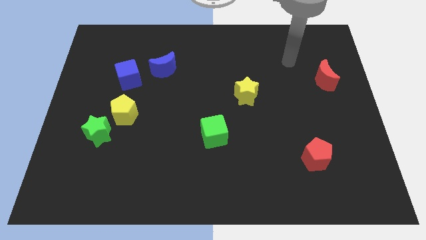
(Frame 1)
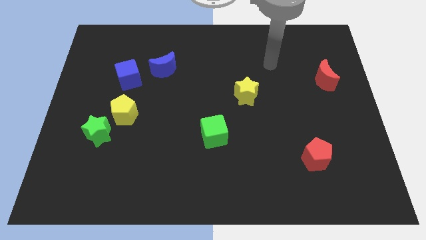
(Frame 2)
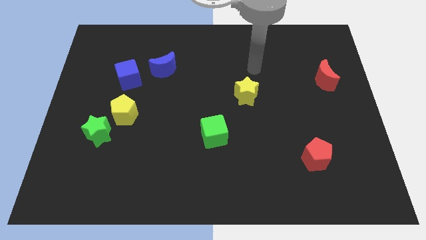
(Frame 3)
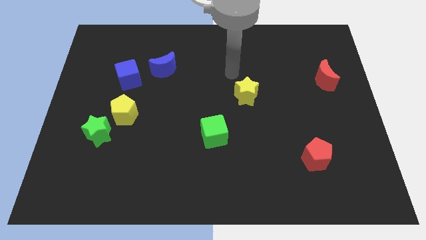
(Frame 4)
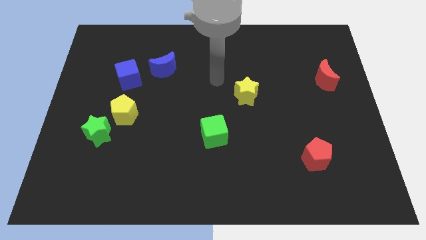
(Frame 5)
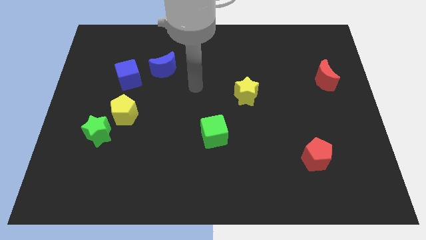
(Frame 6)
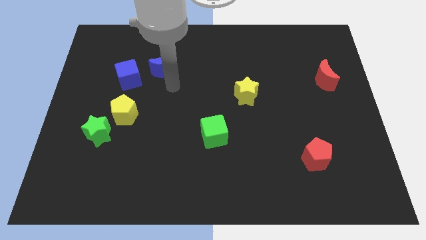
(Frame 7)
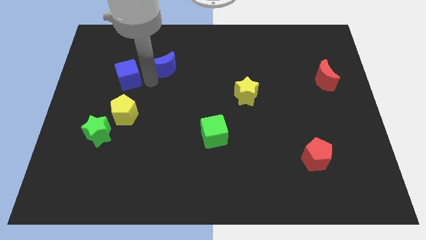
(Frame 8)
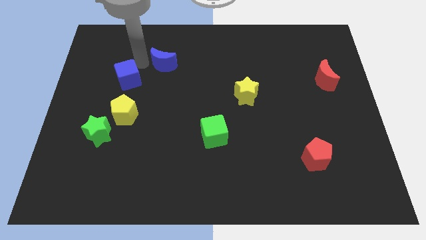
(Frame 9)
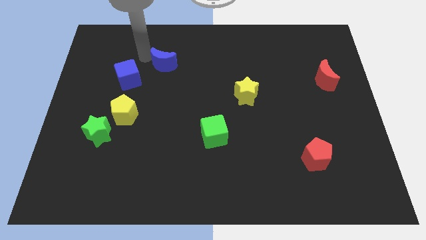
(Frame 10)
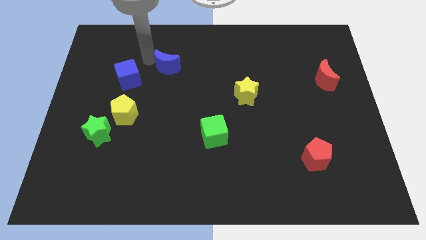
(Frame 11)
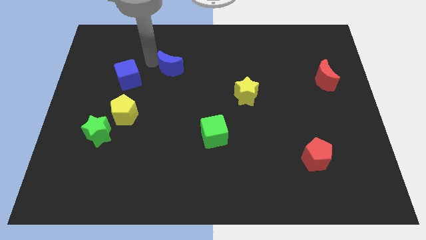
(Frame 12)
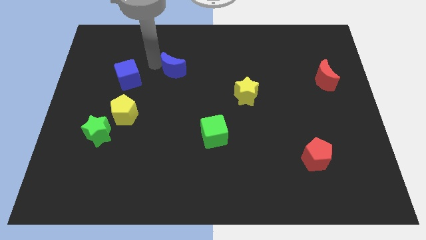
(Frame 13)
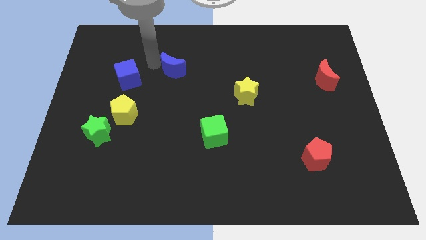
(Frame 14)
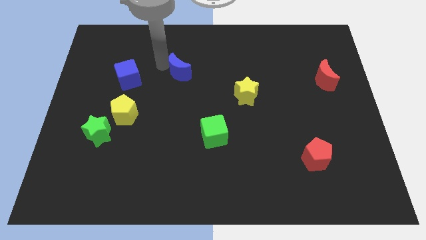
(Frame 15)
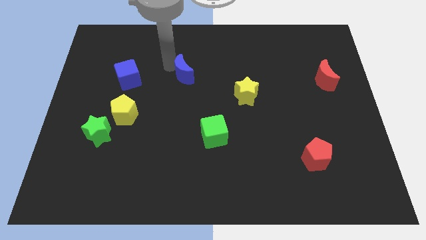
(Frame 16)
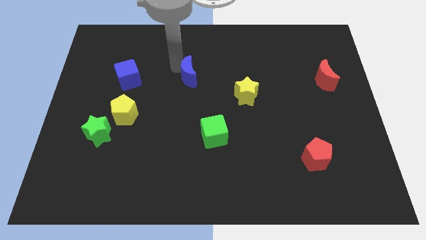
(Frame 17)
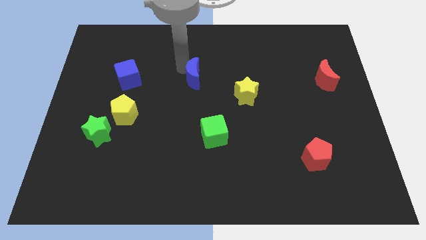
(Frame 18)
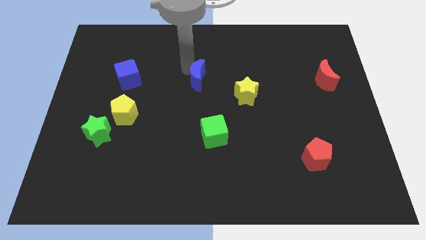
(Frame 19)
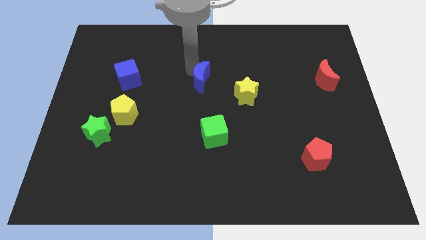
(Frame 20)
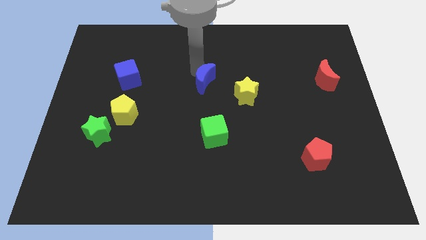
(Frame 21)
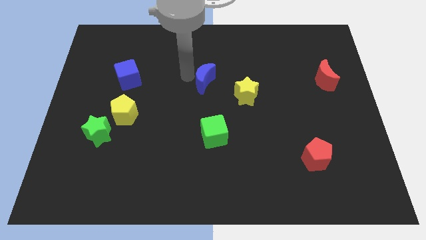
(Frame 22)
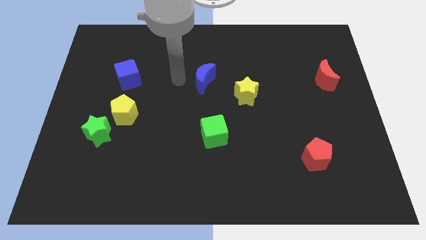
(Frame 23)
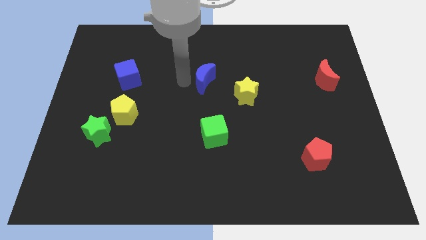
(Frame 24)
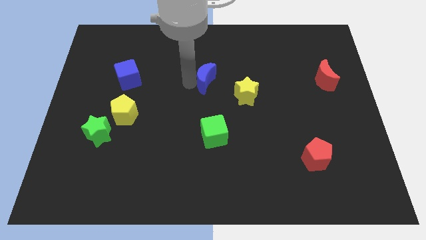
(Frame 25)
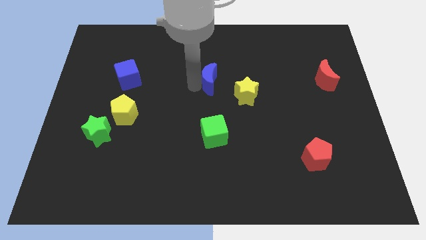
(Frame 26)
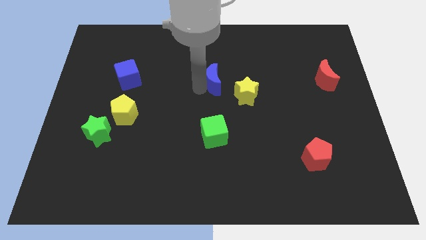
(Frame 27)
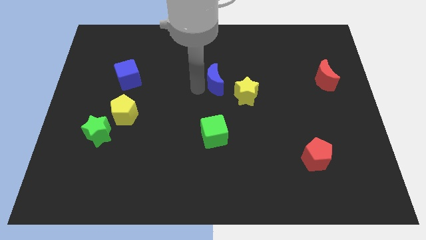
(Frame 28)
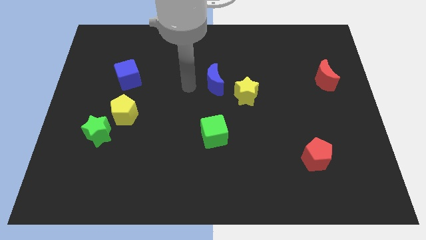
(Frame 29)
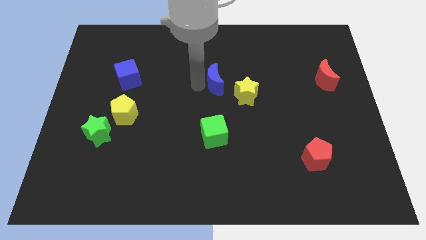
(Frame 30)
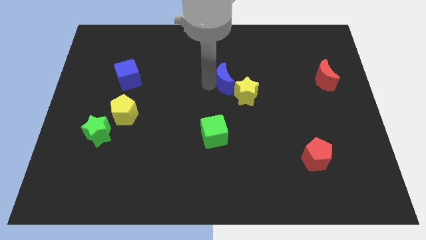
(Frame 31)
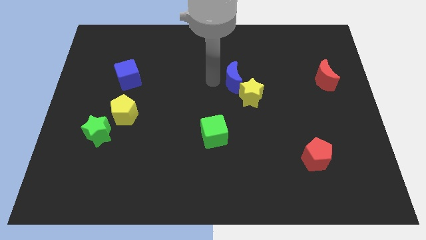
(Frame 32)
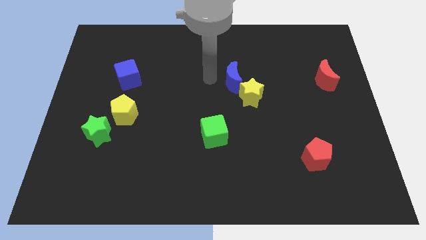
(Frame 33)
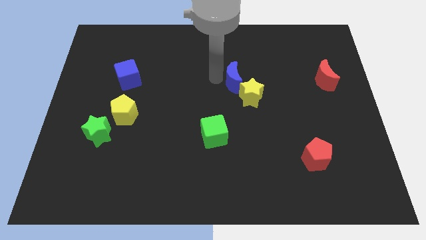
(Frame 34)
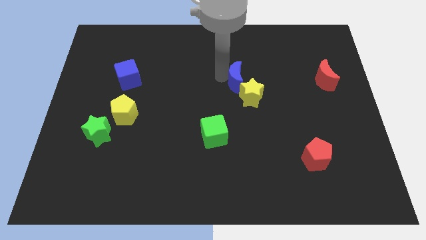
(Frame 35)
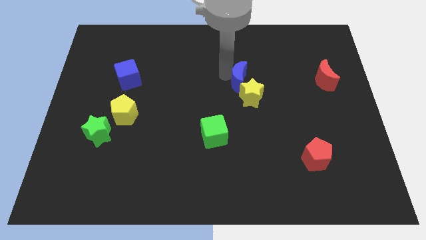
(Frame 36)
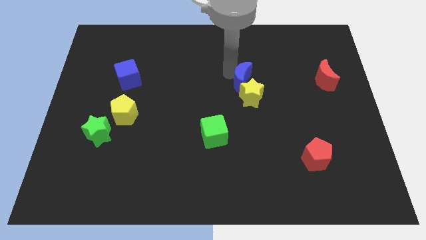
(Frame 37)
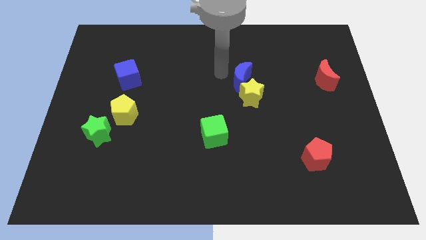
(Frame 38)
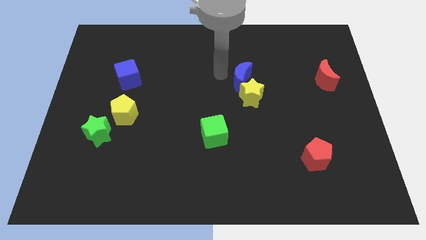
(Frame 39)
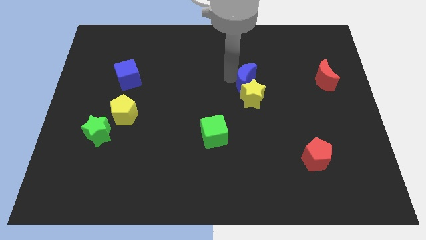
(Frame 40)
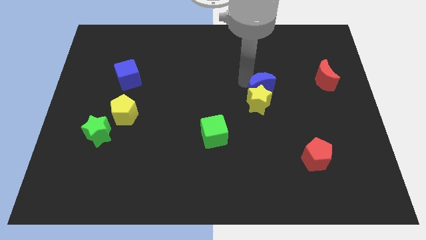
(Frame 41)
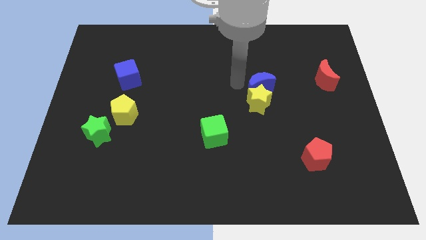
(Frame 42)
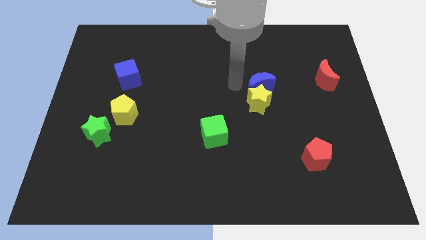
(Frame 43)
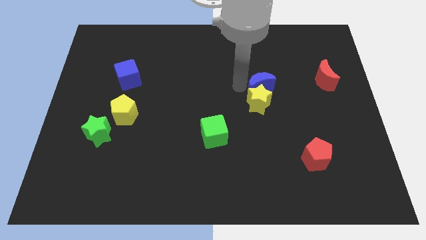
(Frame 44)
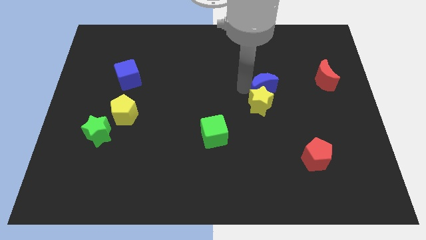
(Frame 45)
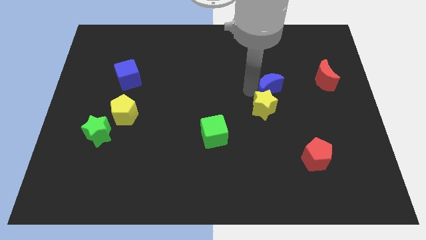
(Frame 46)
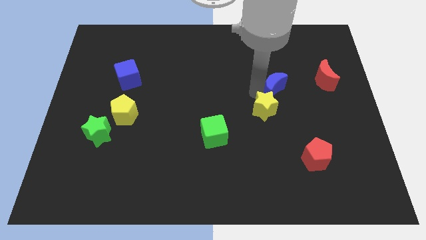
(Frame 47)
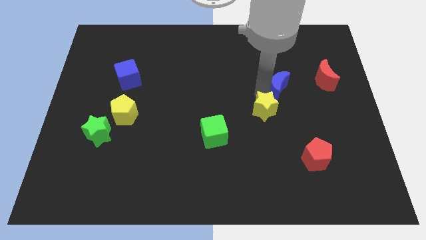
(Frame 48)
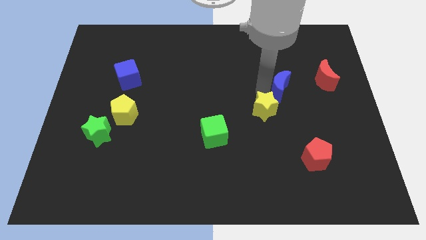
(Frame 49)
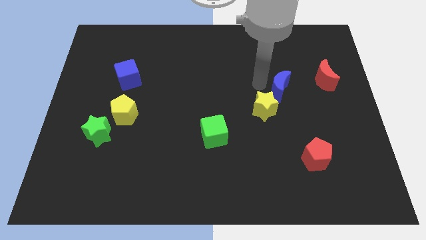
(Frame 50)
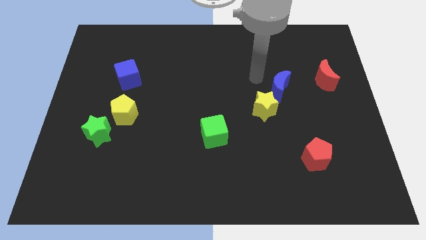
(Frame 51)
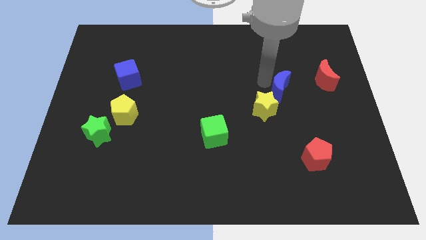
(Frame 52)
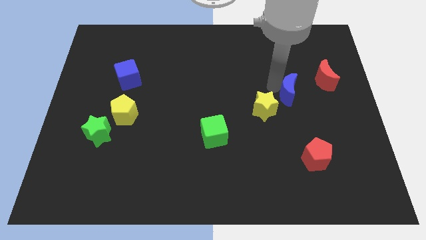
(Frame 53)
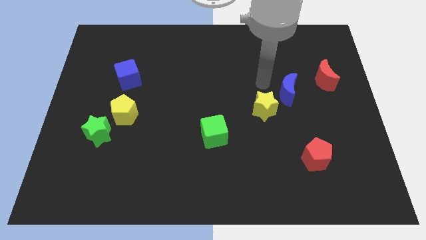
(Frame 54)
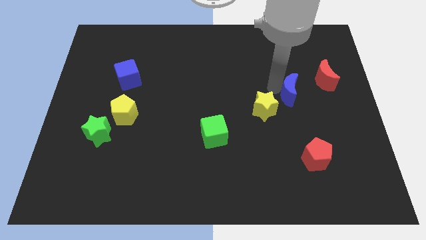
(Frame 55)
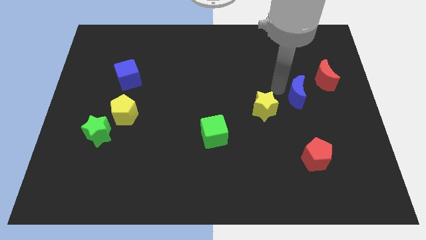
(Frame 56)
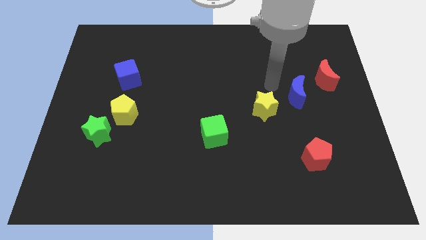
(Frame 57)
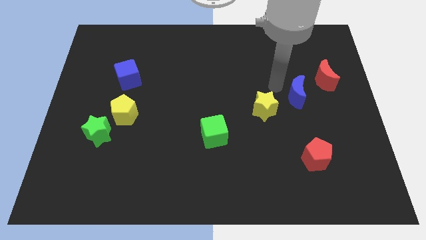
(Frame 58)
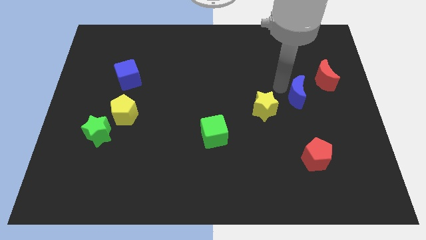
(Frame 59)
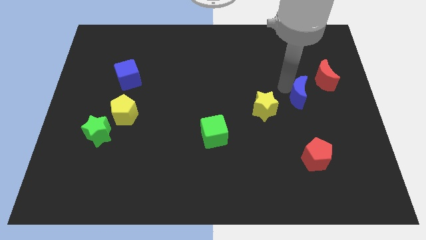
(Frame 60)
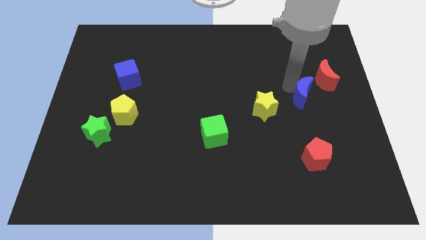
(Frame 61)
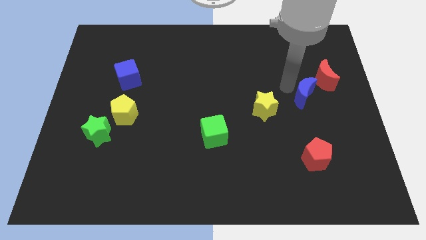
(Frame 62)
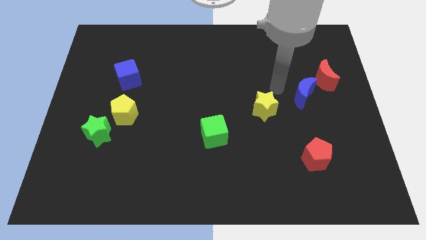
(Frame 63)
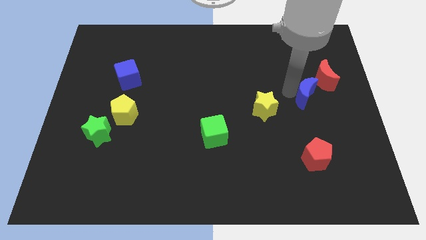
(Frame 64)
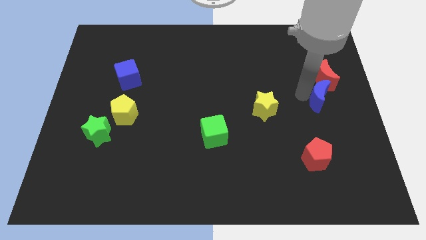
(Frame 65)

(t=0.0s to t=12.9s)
move the blue moon to the center right
